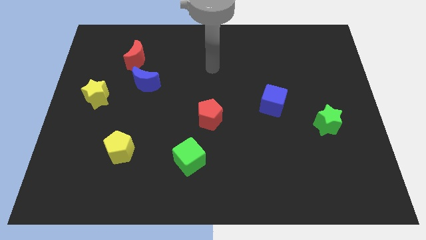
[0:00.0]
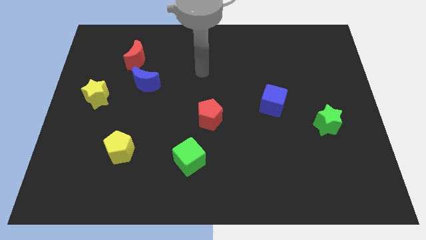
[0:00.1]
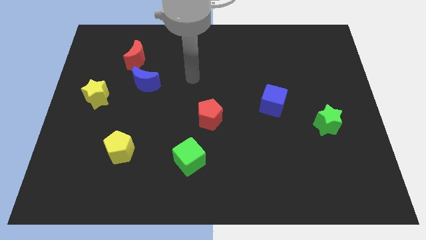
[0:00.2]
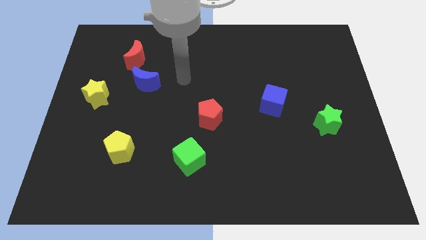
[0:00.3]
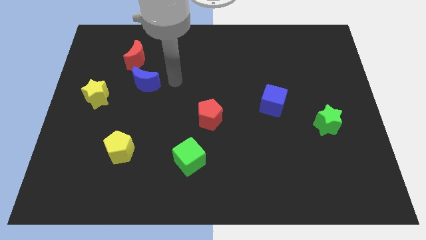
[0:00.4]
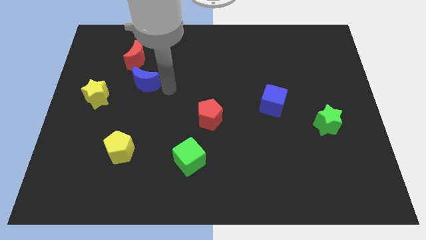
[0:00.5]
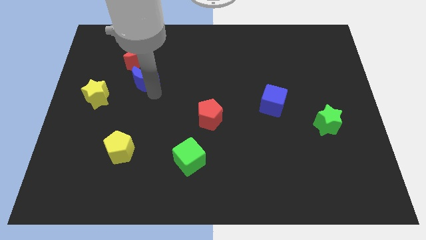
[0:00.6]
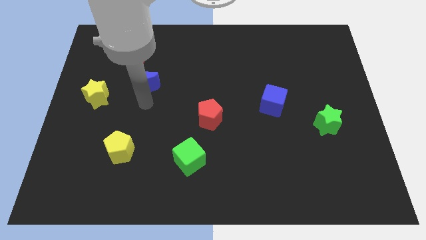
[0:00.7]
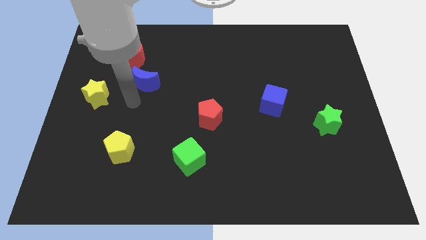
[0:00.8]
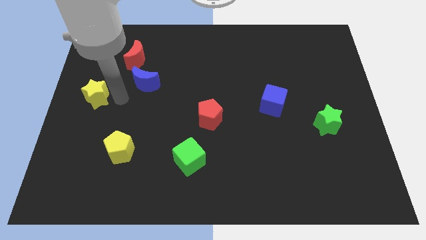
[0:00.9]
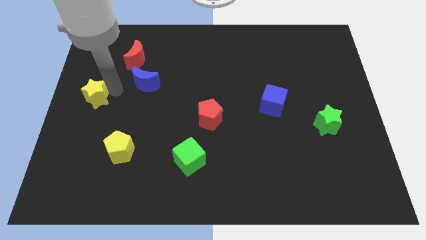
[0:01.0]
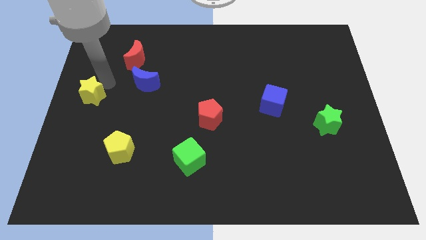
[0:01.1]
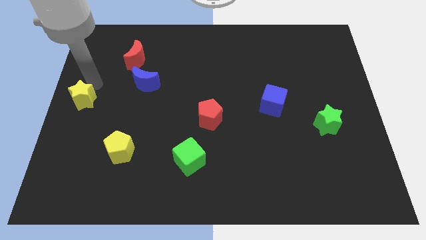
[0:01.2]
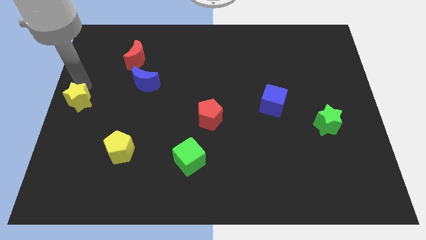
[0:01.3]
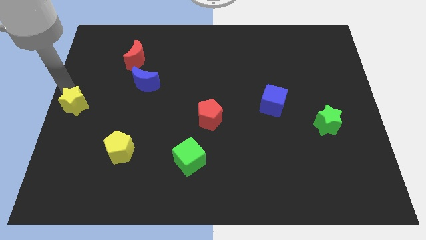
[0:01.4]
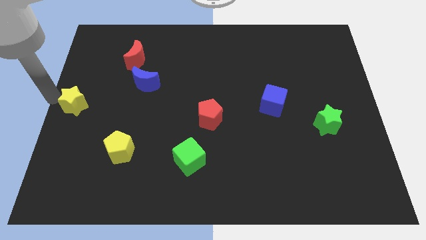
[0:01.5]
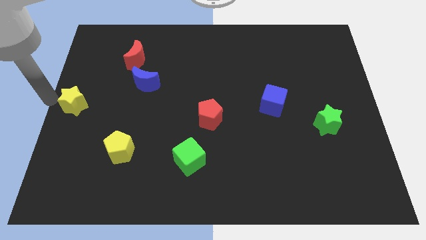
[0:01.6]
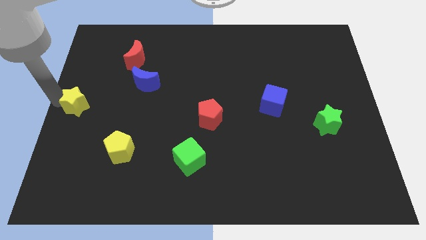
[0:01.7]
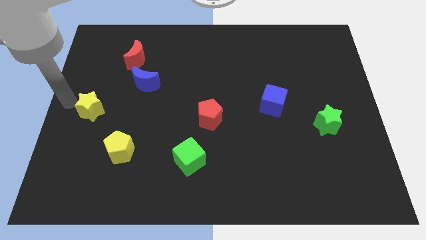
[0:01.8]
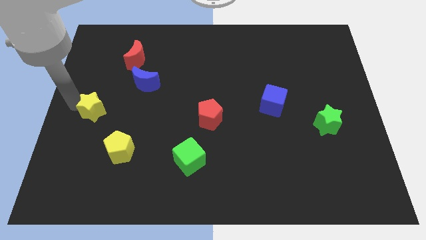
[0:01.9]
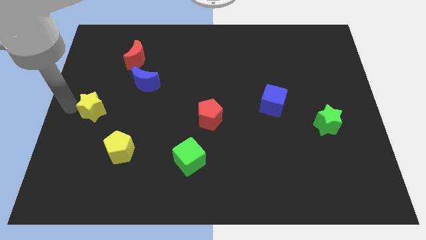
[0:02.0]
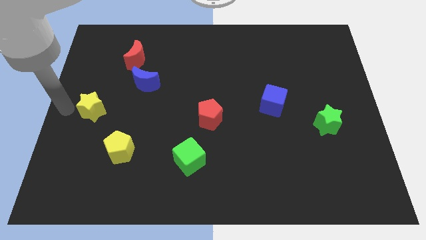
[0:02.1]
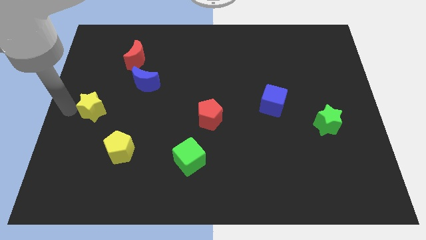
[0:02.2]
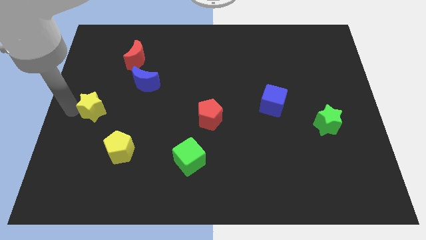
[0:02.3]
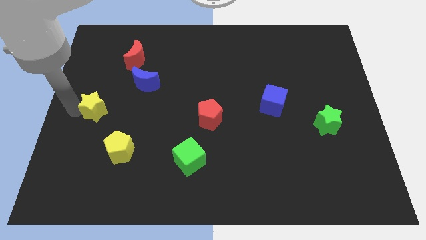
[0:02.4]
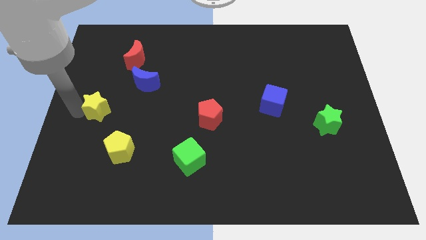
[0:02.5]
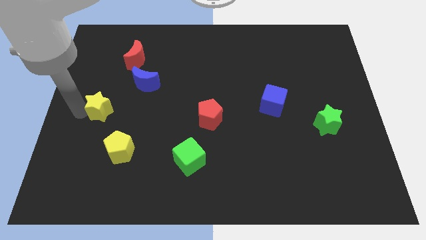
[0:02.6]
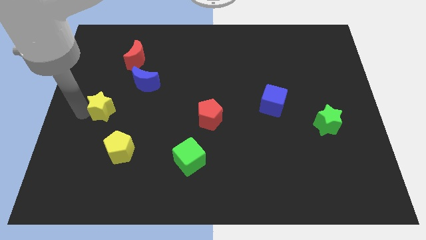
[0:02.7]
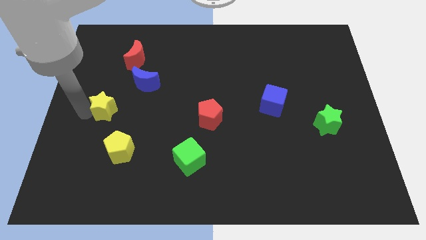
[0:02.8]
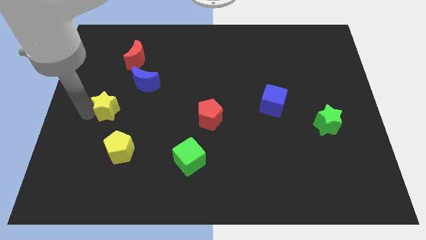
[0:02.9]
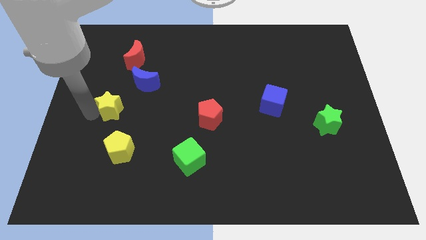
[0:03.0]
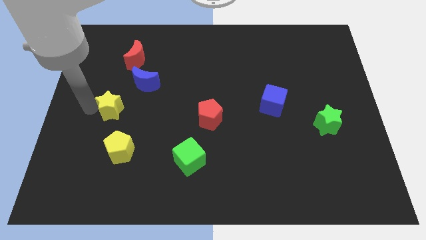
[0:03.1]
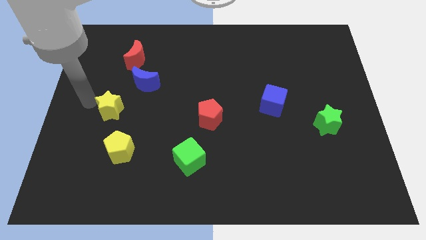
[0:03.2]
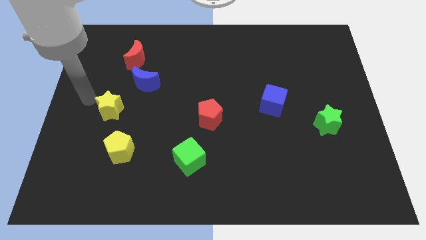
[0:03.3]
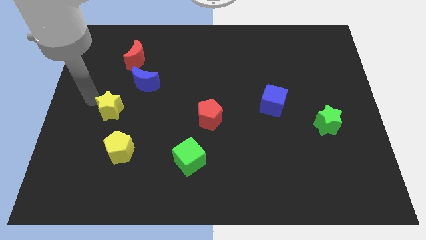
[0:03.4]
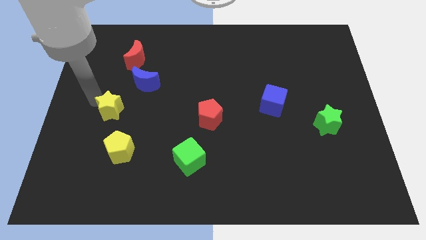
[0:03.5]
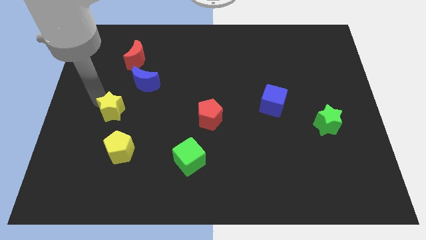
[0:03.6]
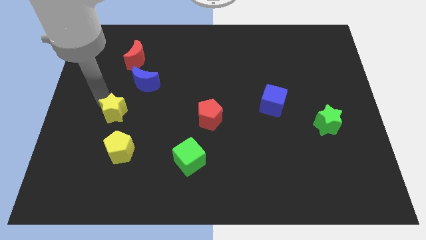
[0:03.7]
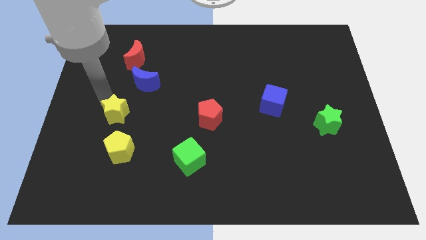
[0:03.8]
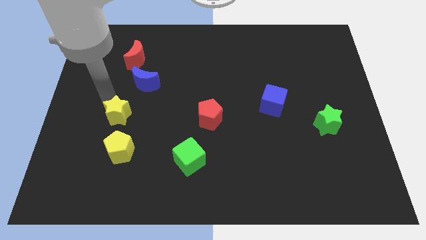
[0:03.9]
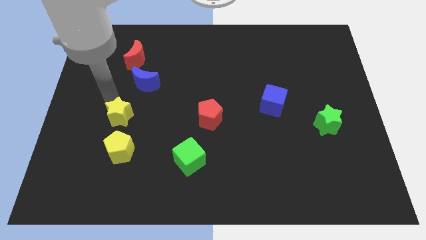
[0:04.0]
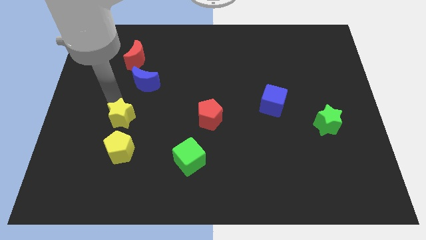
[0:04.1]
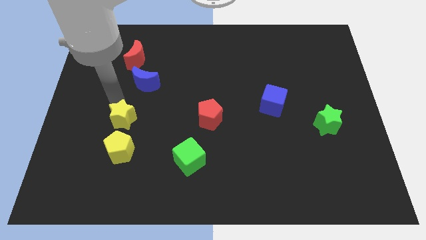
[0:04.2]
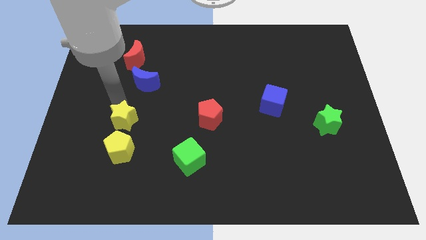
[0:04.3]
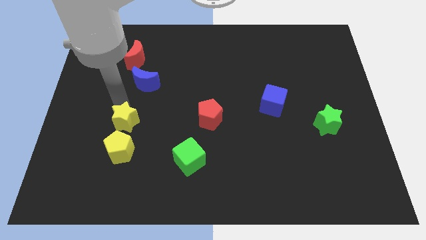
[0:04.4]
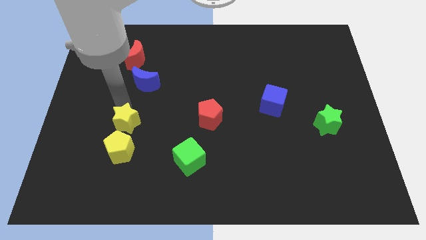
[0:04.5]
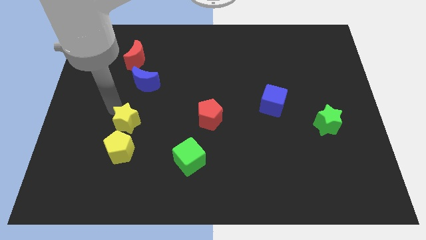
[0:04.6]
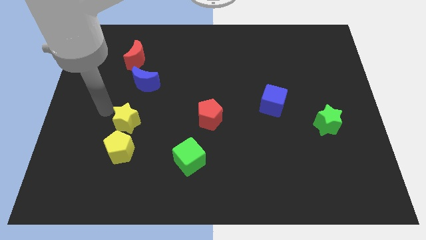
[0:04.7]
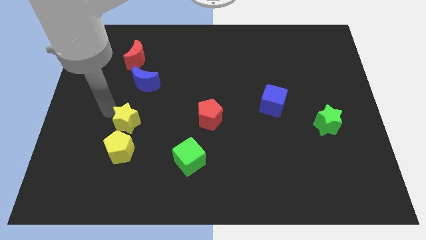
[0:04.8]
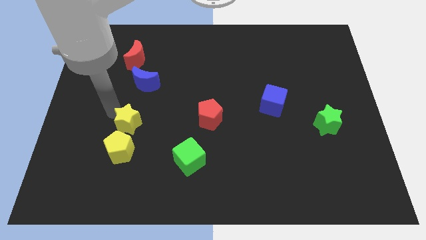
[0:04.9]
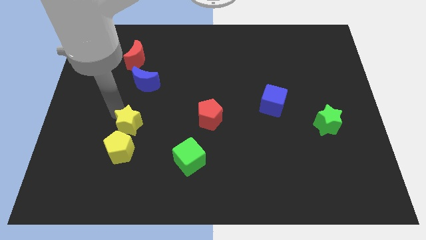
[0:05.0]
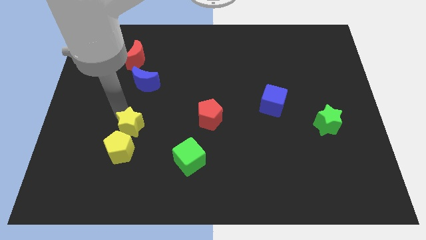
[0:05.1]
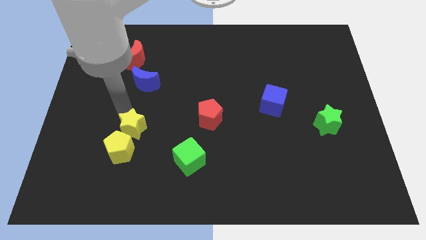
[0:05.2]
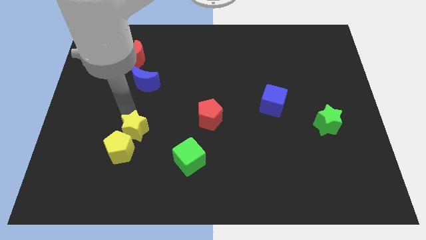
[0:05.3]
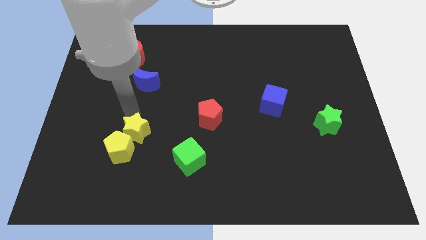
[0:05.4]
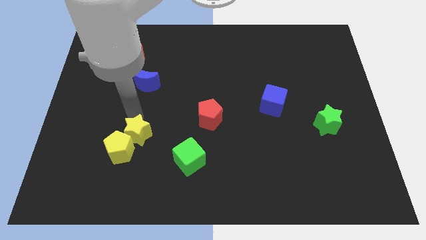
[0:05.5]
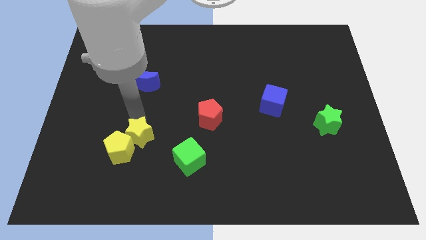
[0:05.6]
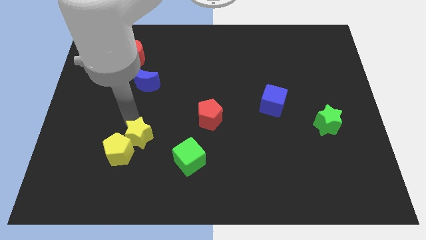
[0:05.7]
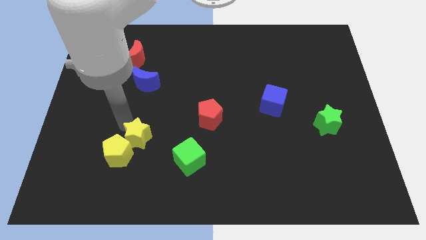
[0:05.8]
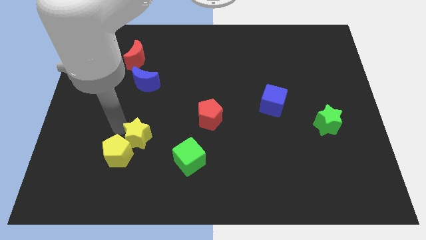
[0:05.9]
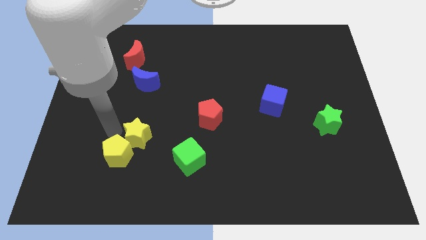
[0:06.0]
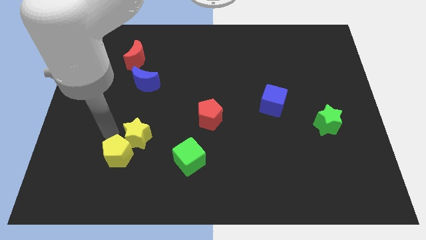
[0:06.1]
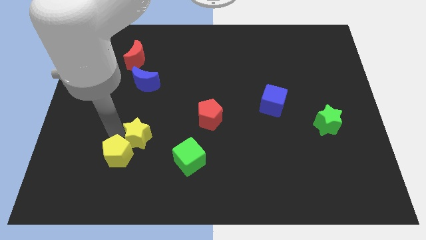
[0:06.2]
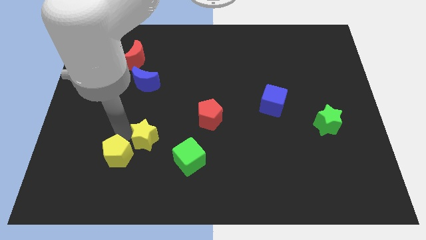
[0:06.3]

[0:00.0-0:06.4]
move the yellow star to the top left of the green cube

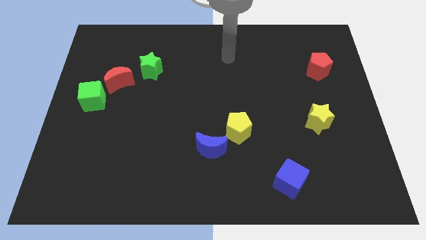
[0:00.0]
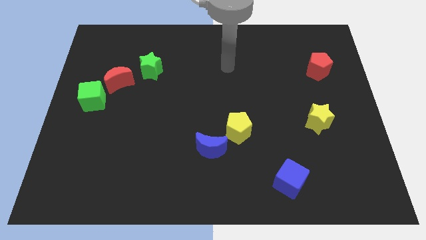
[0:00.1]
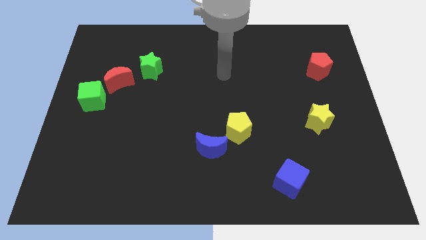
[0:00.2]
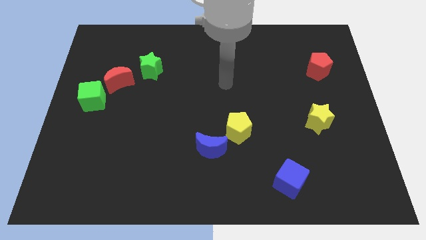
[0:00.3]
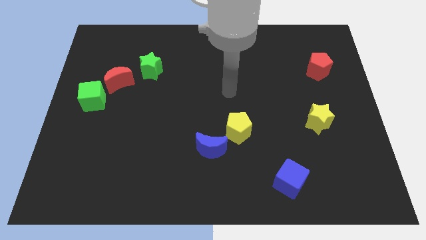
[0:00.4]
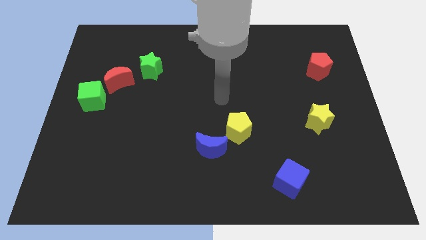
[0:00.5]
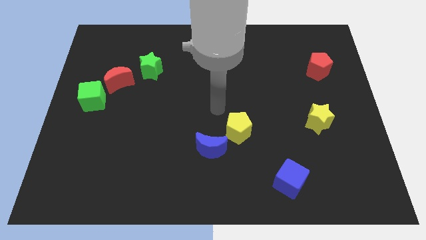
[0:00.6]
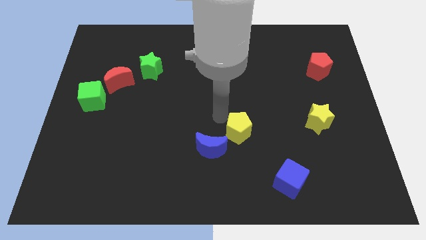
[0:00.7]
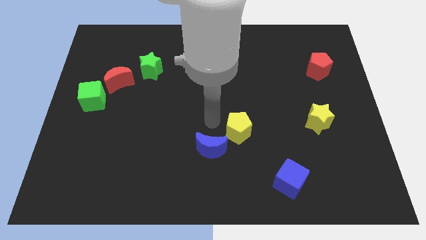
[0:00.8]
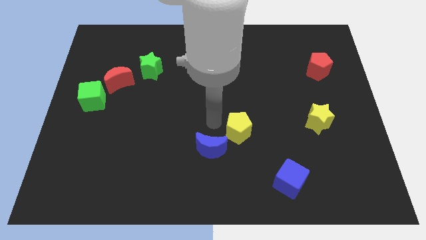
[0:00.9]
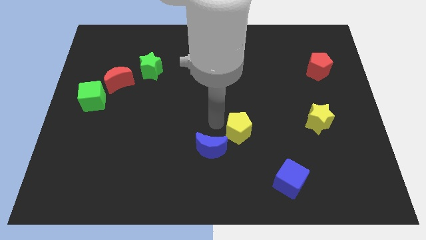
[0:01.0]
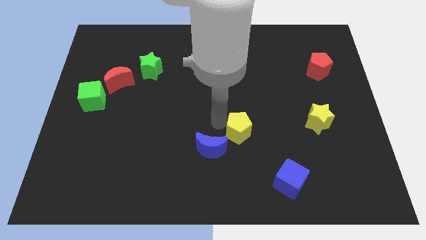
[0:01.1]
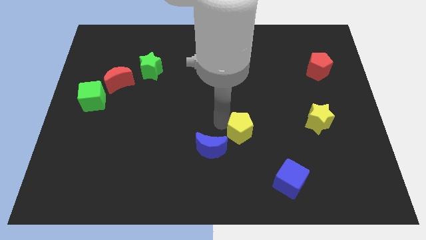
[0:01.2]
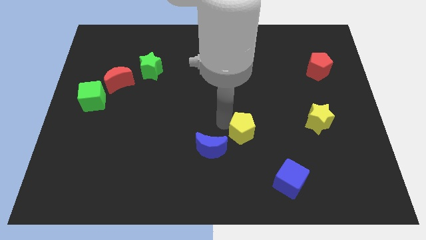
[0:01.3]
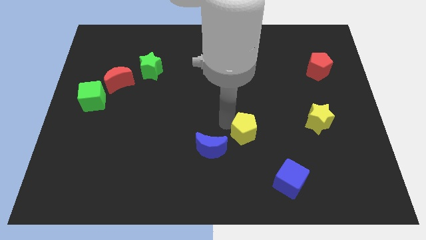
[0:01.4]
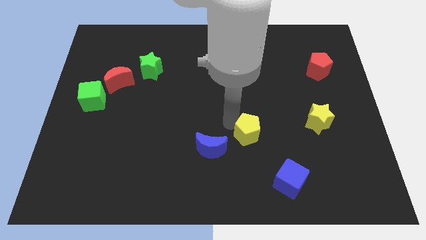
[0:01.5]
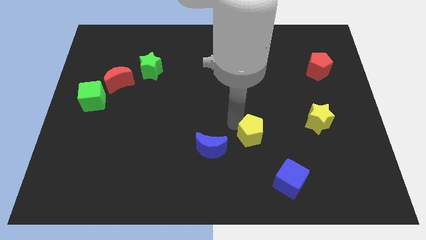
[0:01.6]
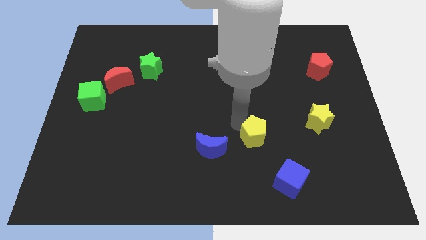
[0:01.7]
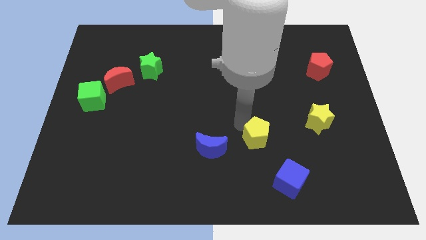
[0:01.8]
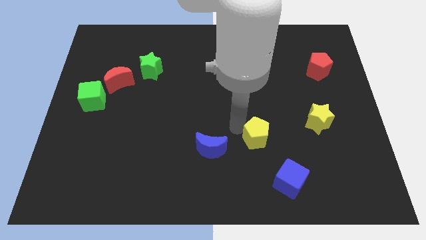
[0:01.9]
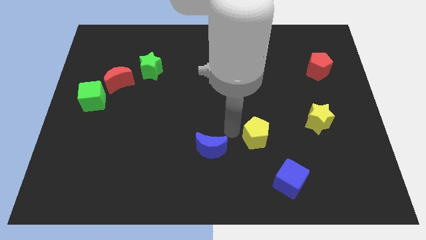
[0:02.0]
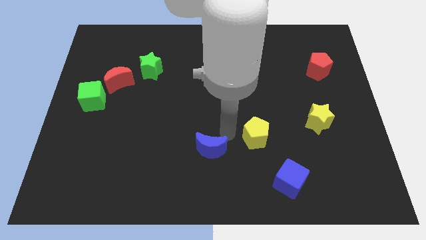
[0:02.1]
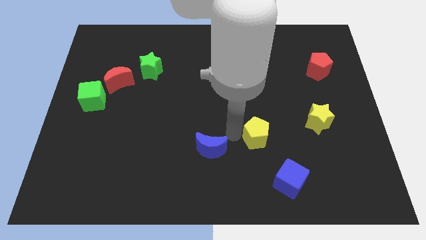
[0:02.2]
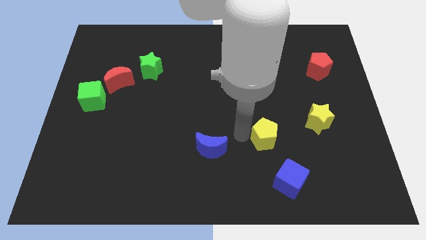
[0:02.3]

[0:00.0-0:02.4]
put the yellow pentagon to the top side of the blue cube
